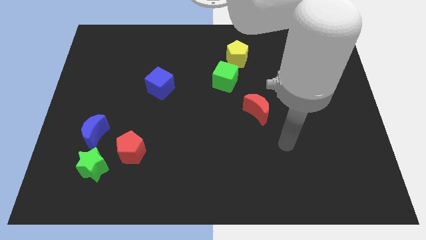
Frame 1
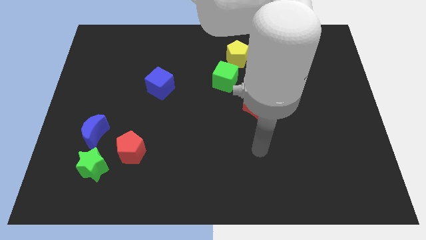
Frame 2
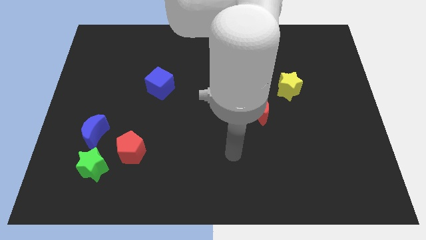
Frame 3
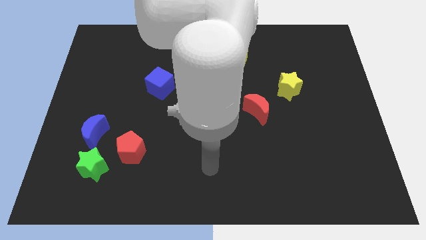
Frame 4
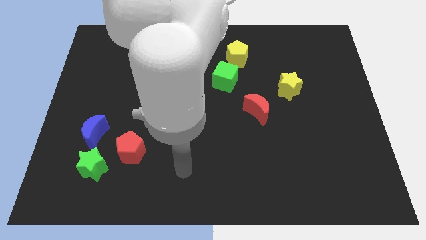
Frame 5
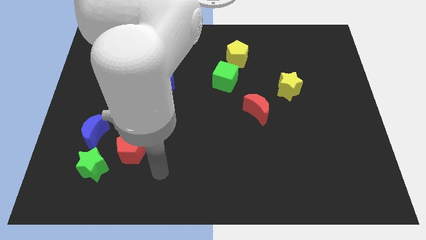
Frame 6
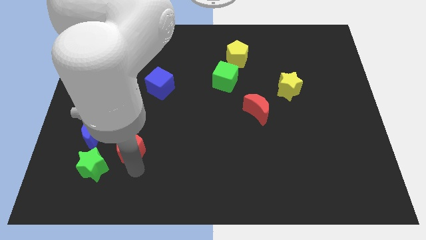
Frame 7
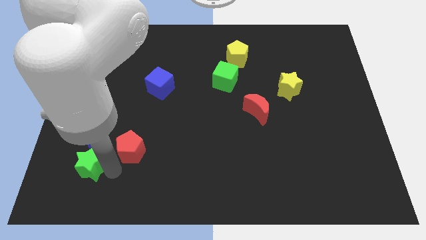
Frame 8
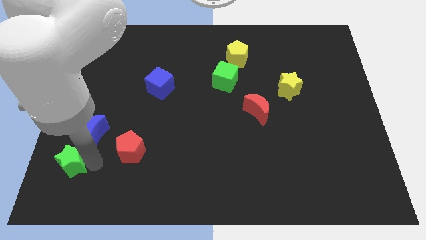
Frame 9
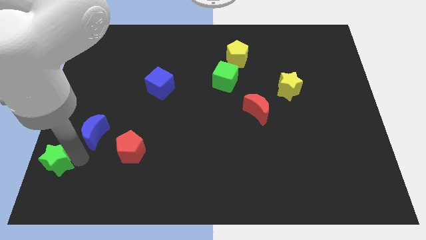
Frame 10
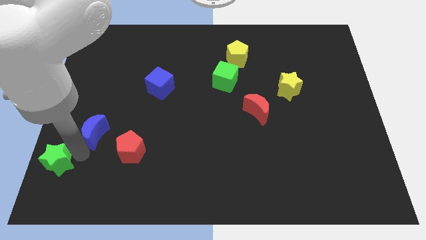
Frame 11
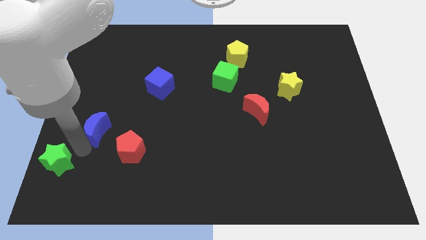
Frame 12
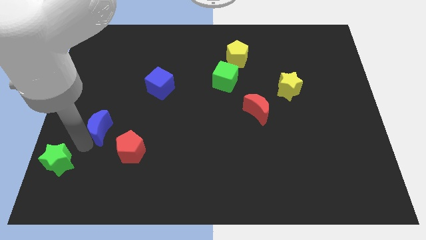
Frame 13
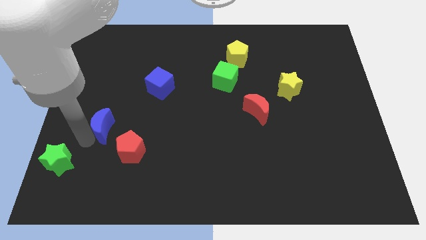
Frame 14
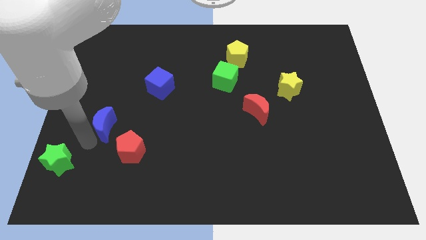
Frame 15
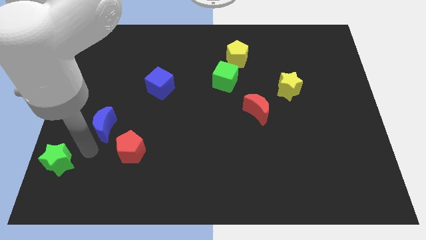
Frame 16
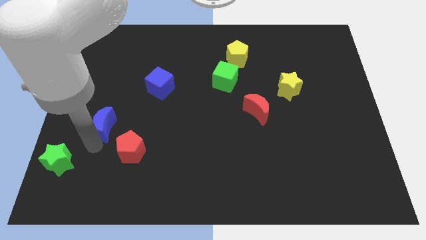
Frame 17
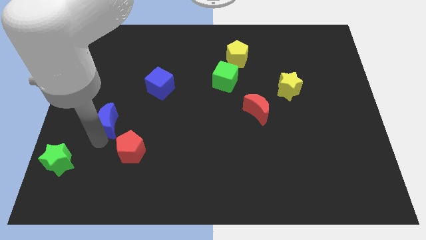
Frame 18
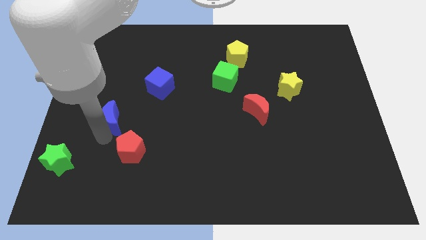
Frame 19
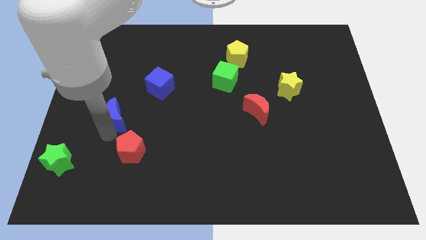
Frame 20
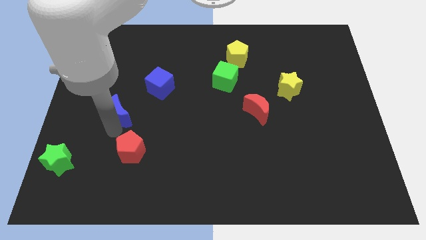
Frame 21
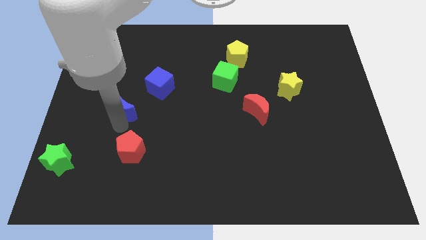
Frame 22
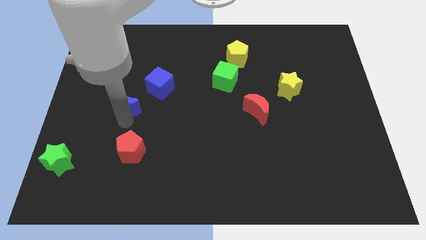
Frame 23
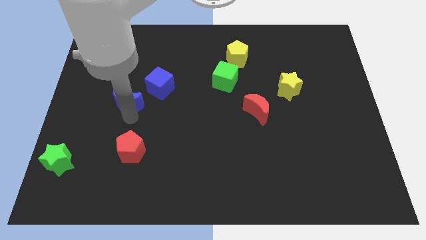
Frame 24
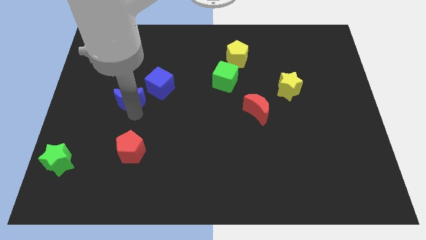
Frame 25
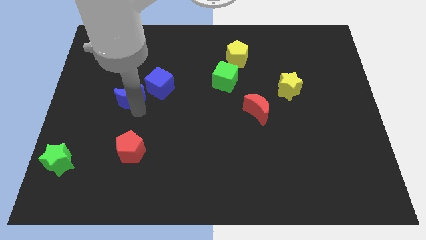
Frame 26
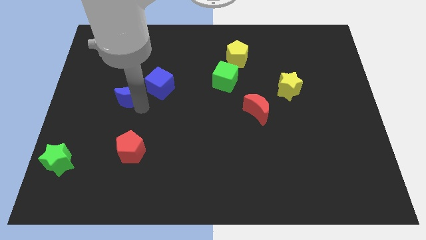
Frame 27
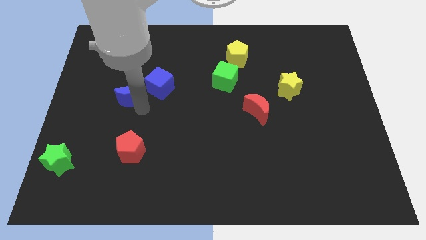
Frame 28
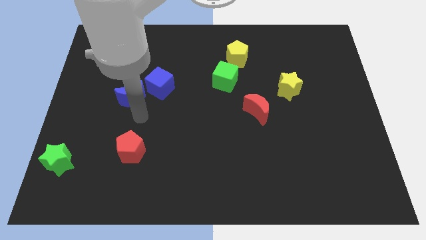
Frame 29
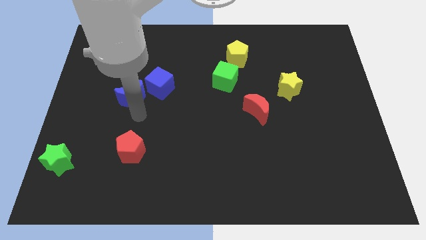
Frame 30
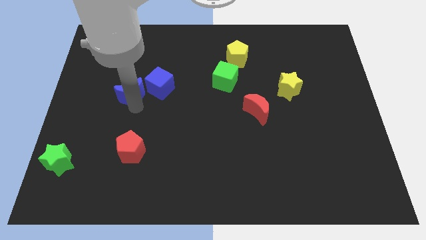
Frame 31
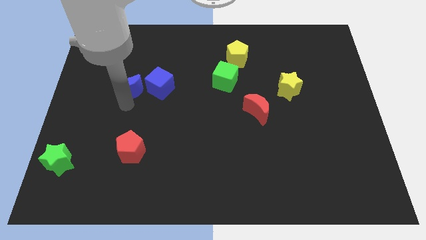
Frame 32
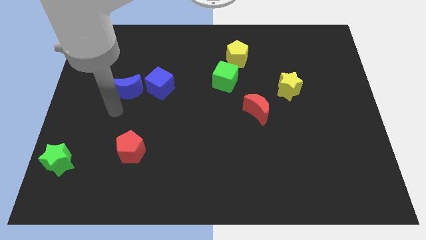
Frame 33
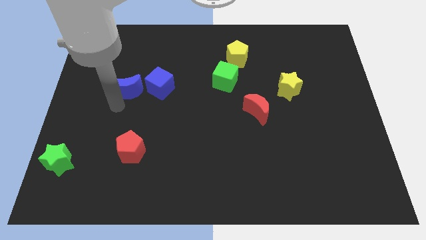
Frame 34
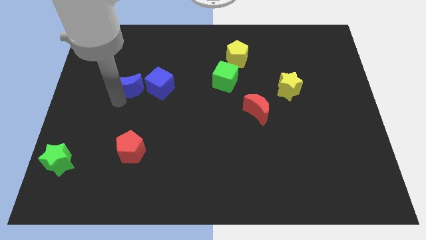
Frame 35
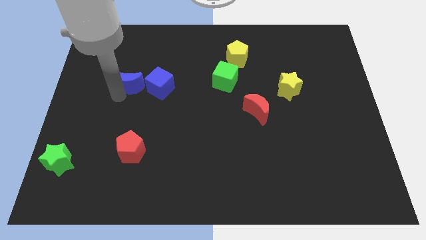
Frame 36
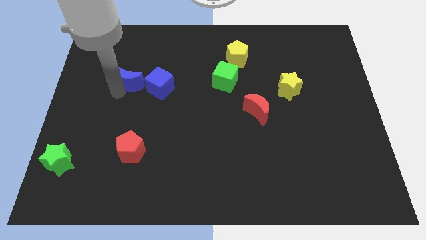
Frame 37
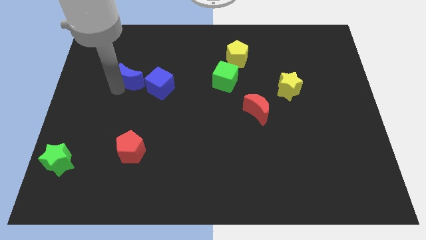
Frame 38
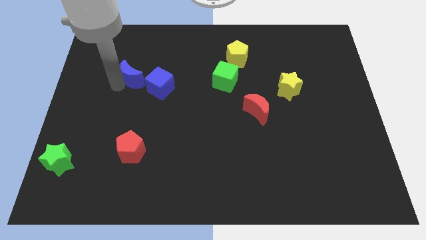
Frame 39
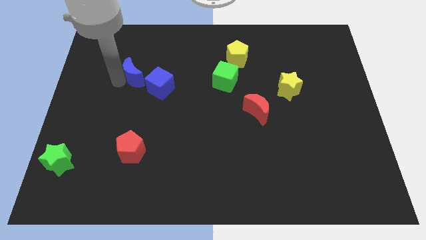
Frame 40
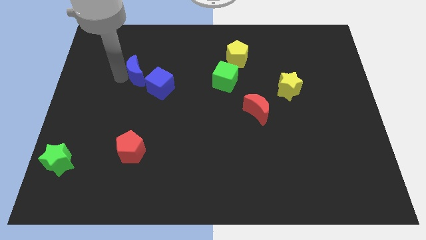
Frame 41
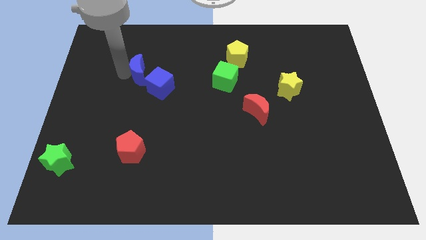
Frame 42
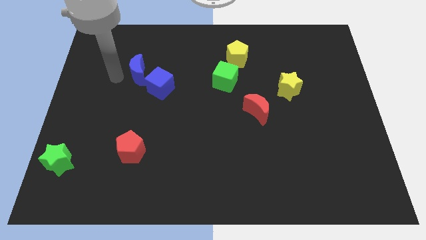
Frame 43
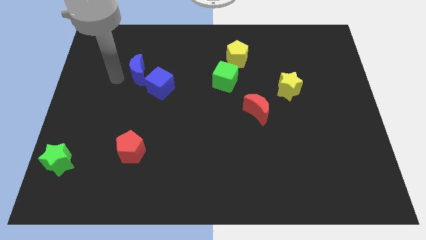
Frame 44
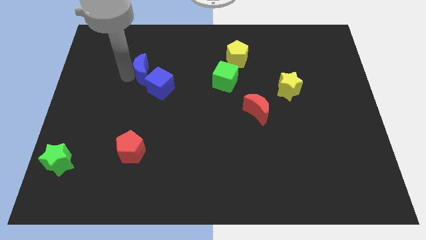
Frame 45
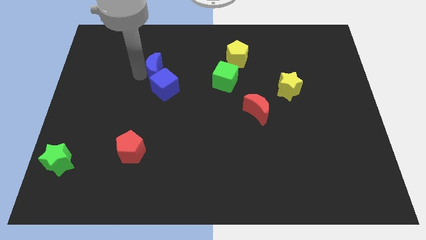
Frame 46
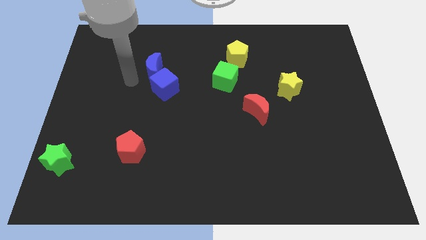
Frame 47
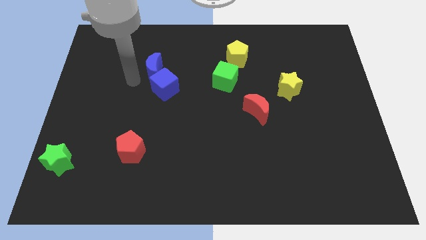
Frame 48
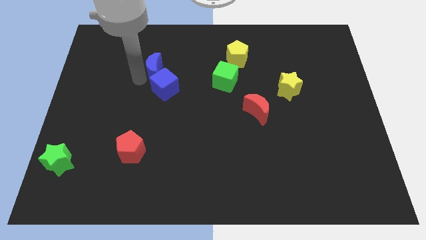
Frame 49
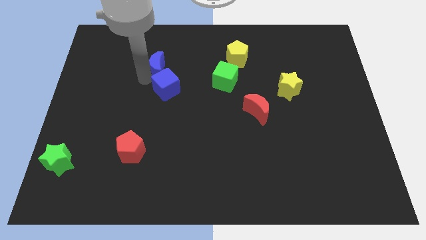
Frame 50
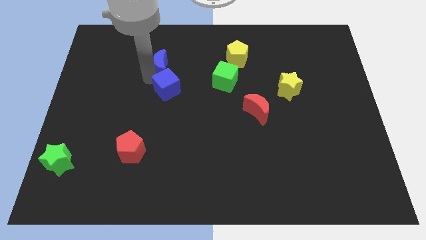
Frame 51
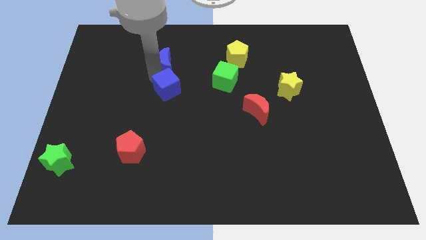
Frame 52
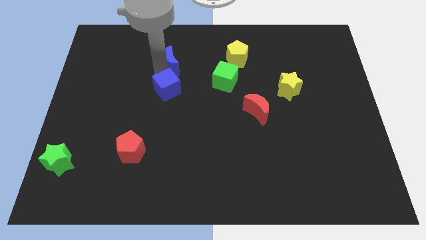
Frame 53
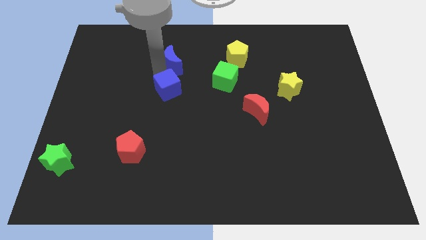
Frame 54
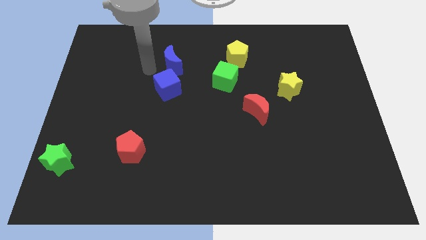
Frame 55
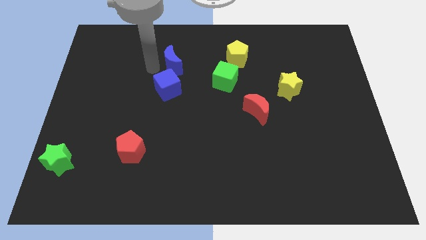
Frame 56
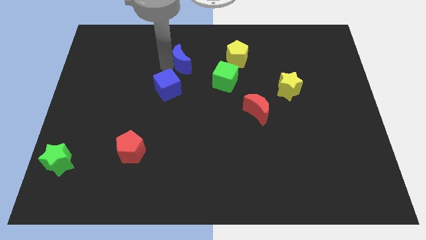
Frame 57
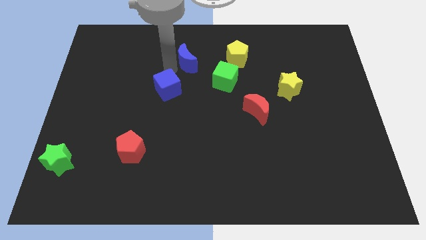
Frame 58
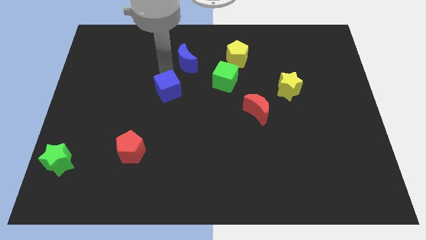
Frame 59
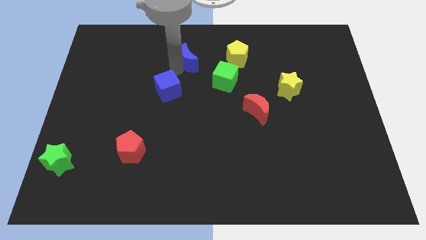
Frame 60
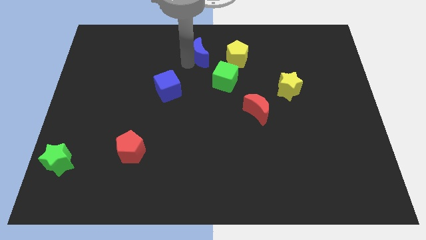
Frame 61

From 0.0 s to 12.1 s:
move the blue moon to the top
